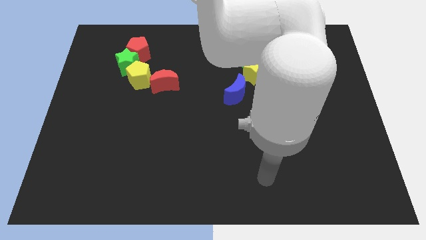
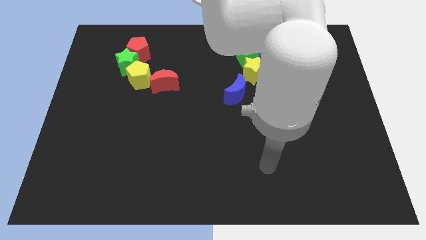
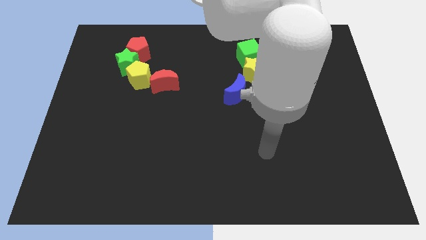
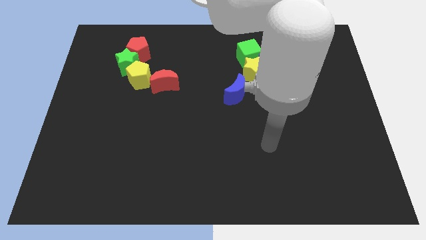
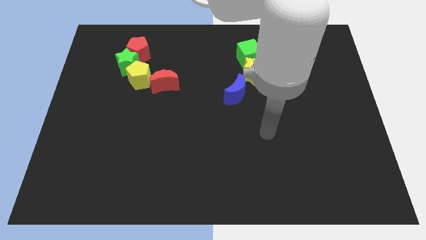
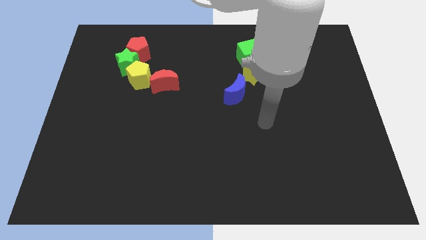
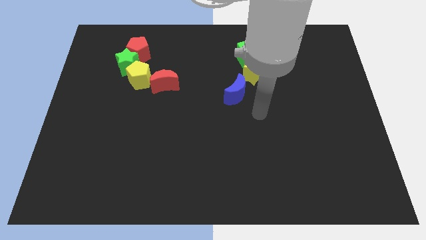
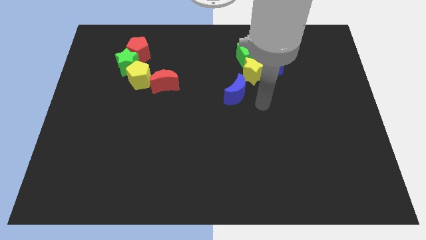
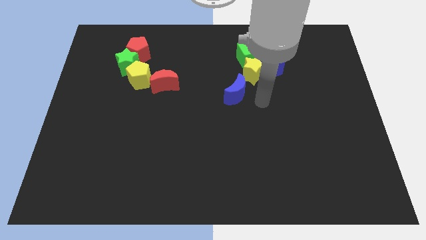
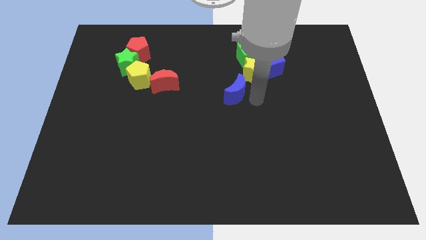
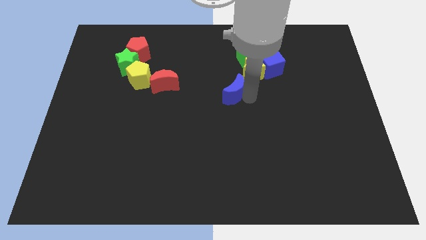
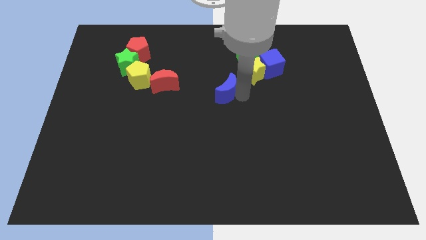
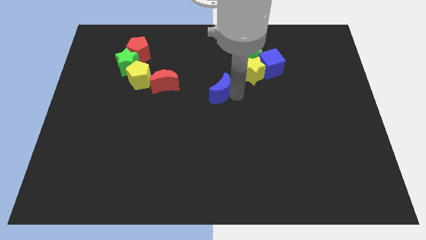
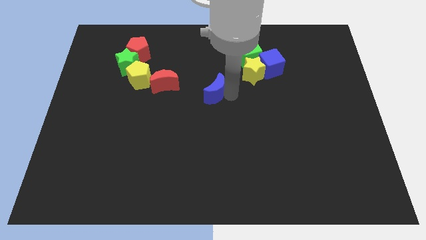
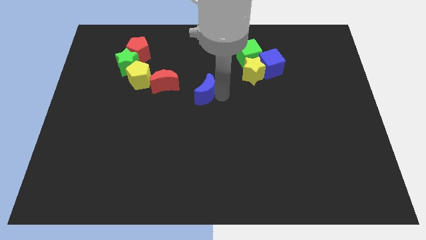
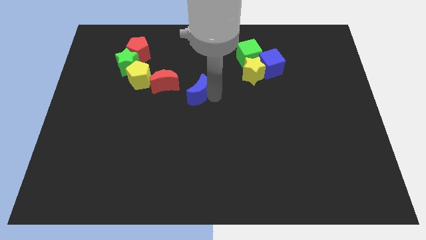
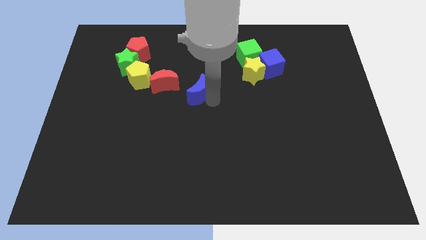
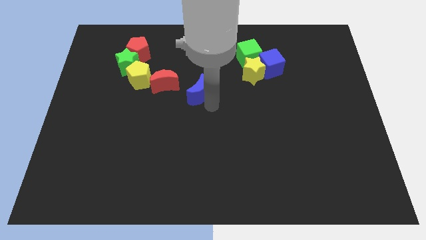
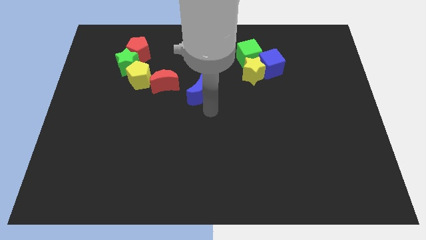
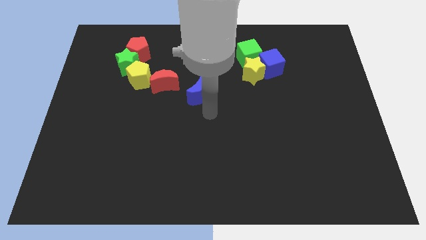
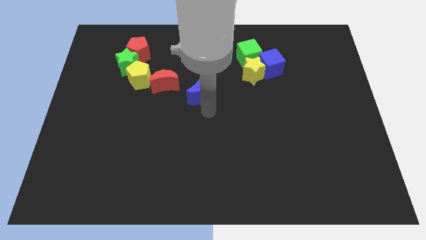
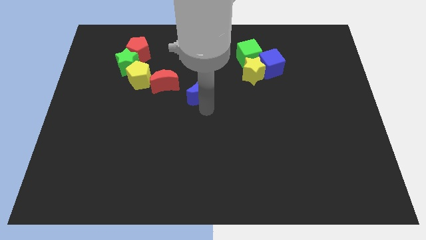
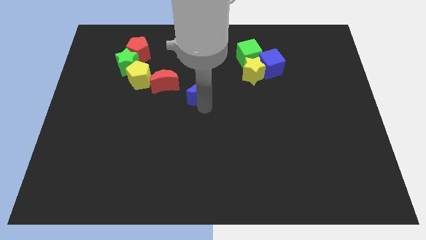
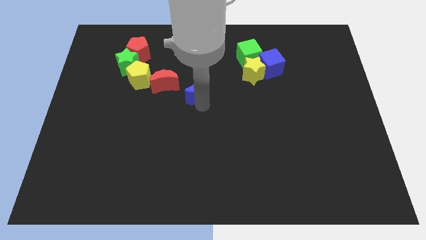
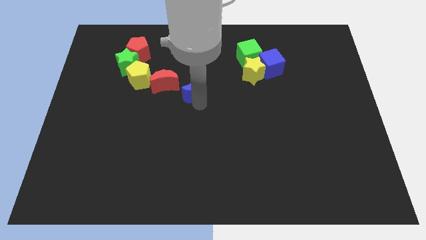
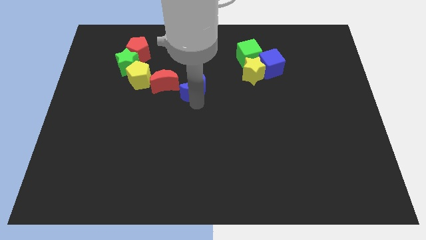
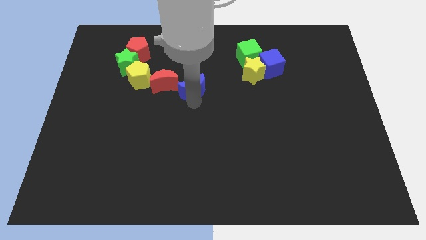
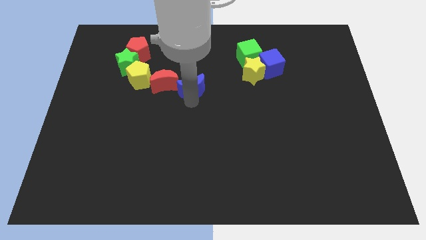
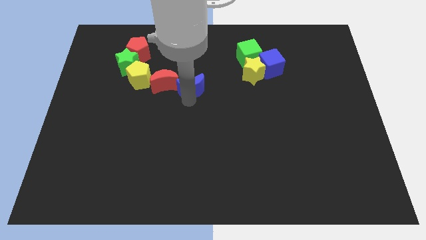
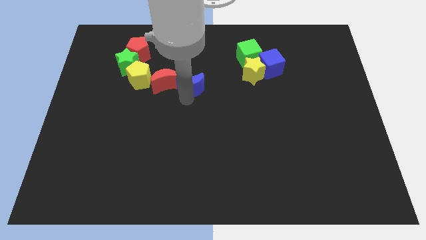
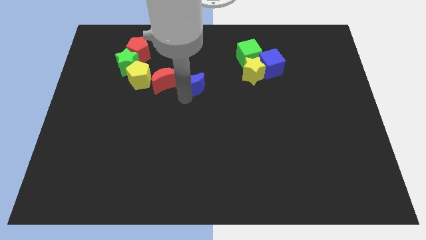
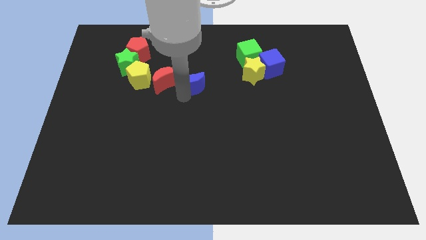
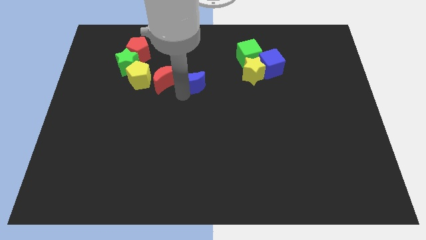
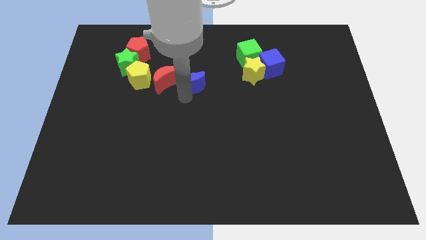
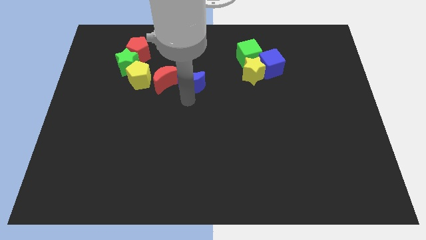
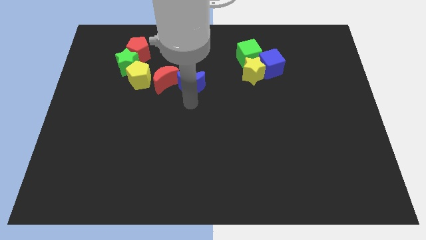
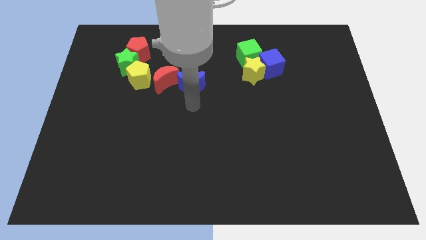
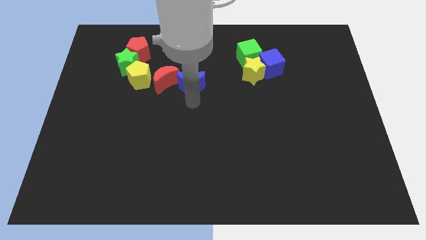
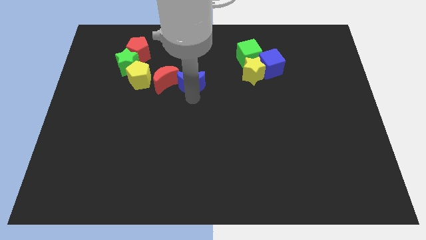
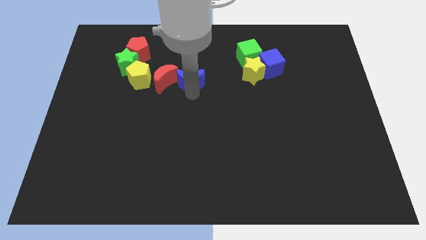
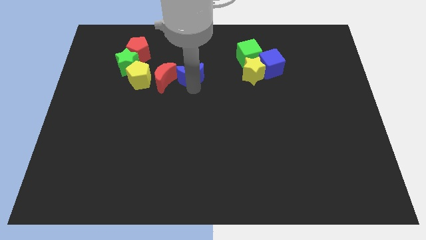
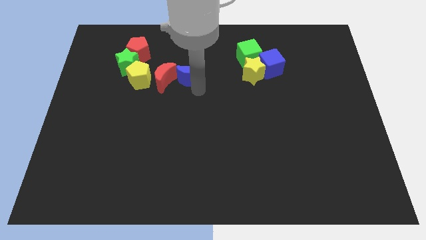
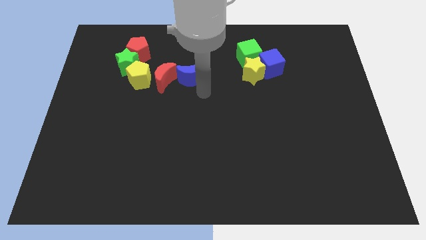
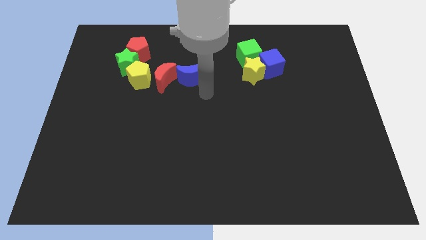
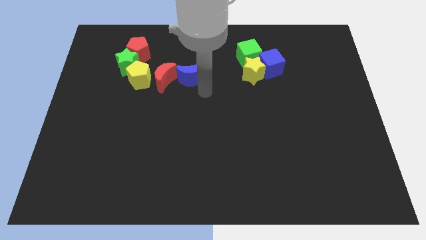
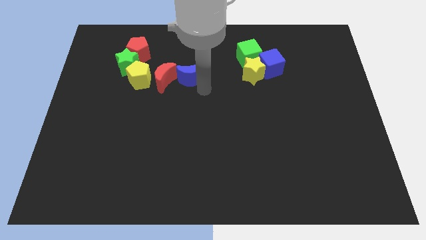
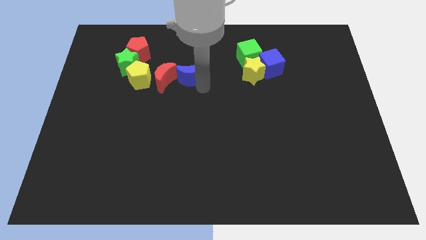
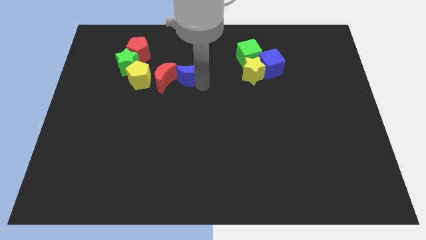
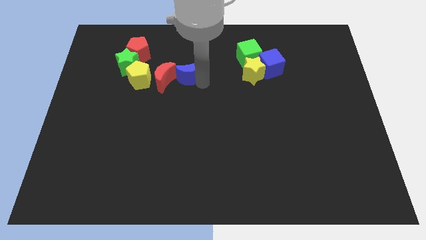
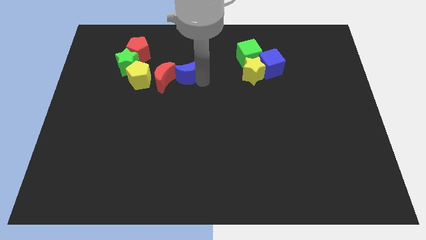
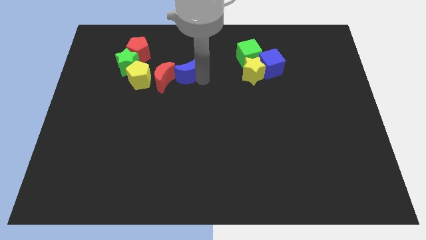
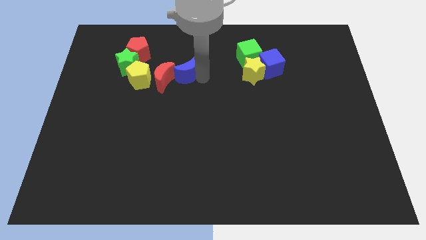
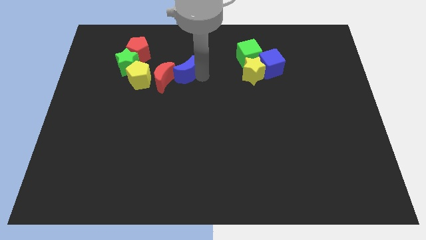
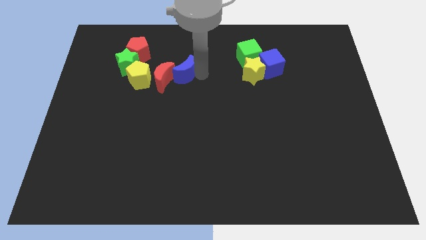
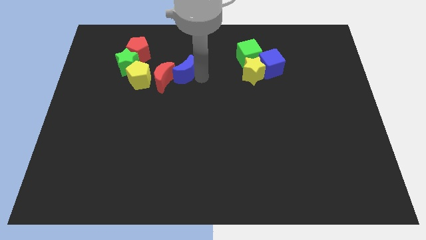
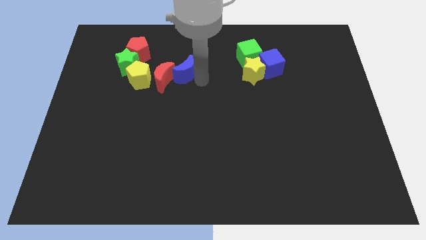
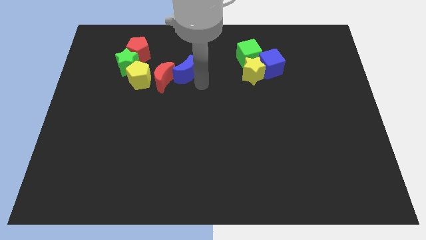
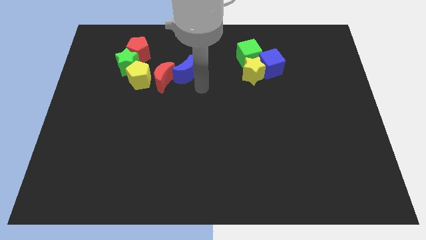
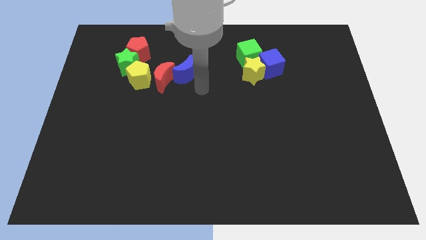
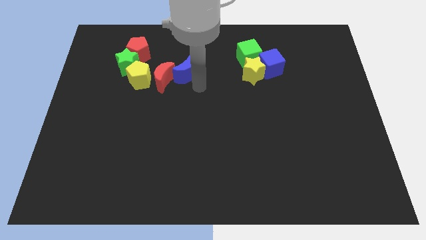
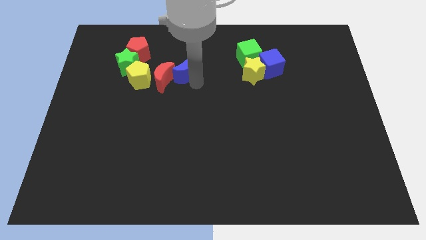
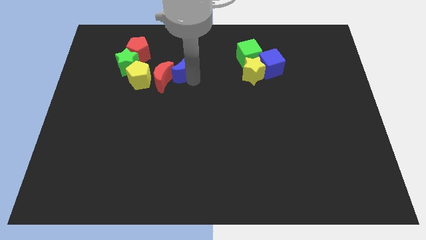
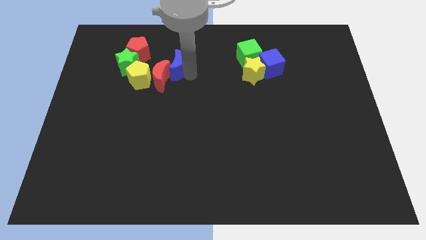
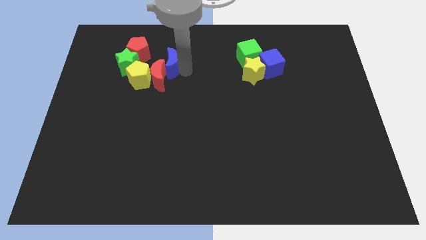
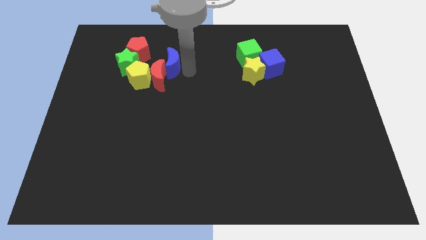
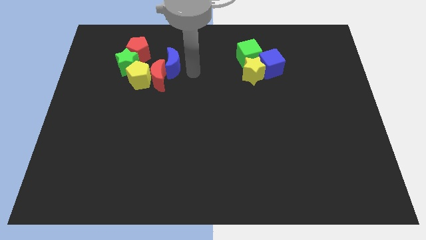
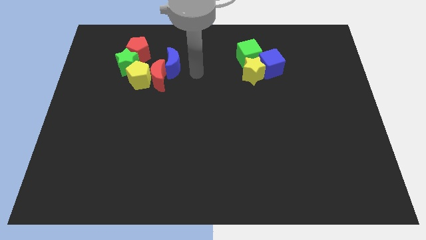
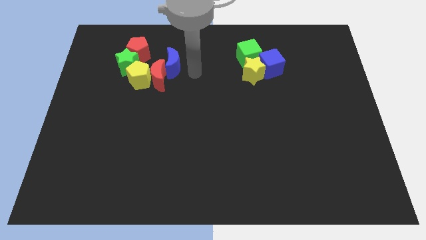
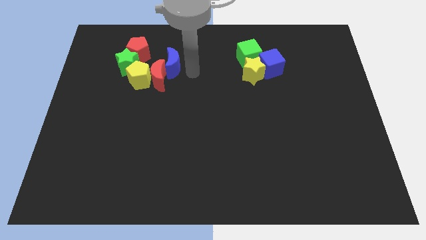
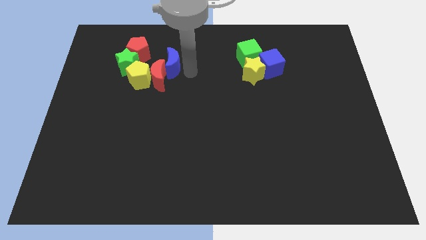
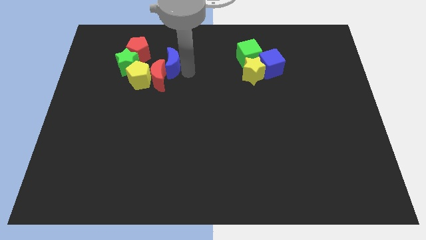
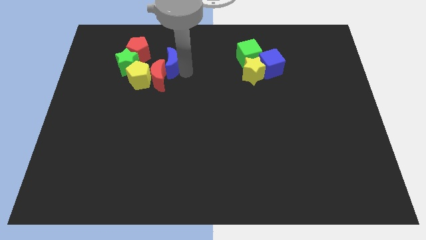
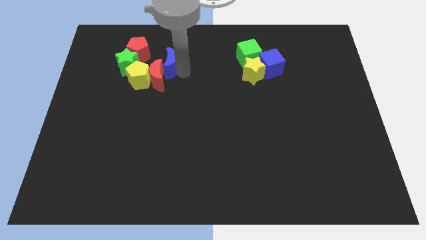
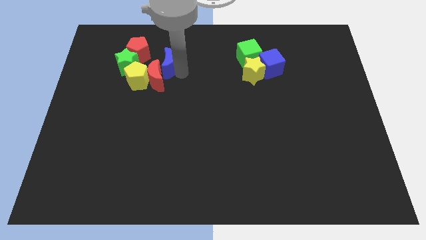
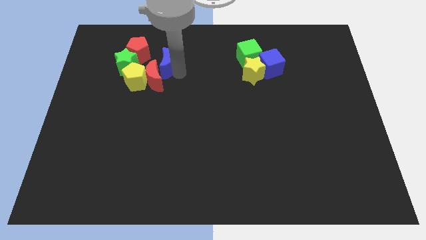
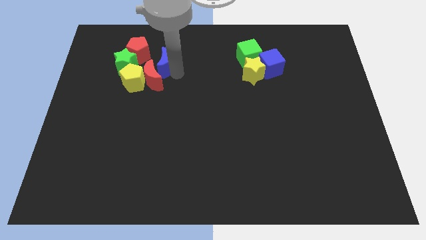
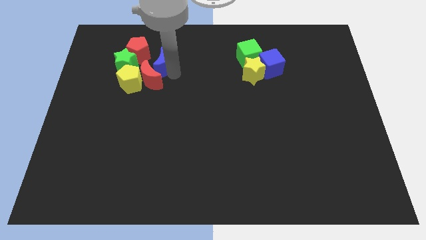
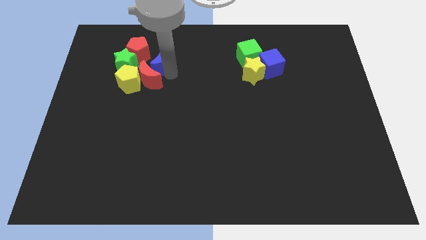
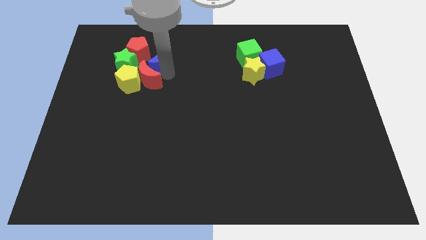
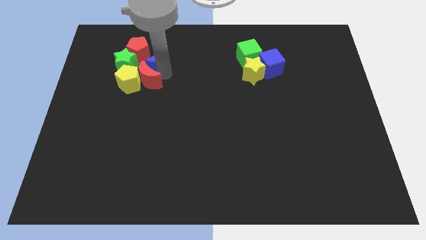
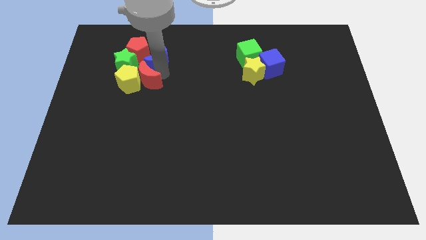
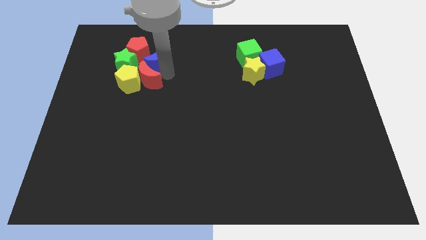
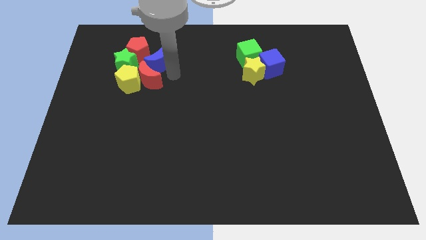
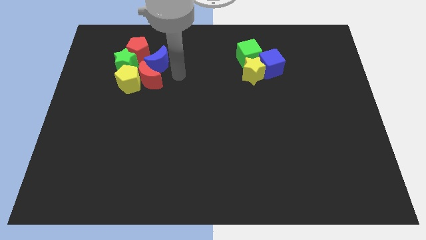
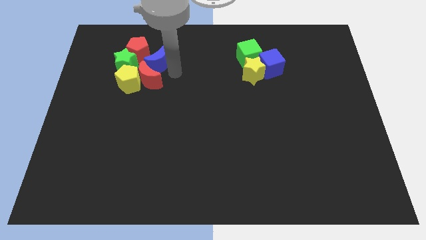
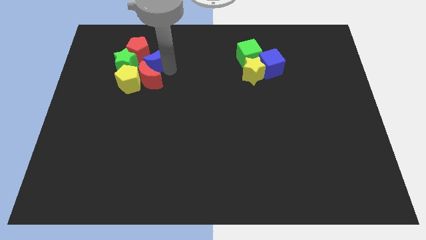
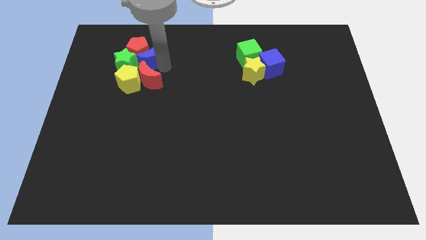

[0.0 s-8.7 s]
put the blue moon towards the red pentagon
